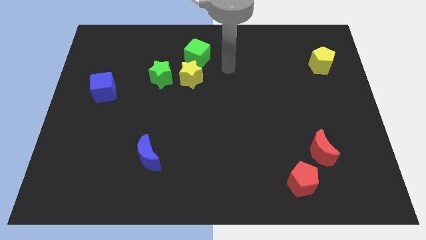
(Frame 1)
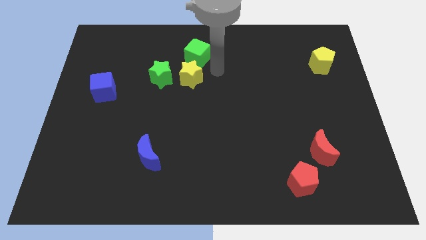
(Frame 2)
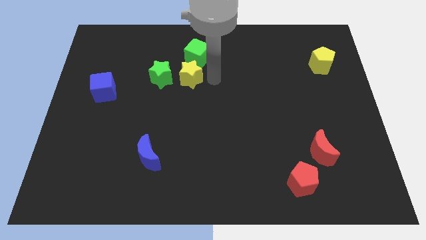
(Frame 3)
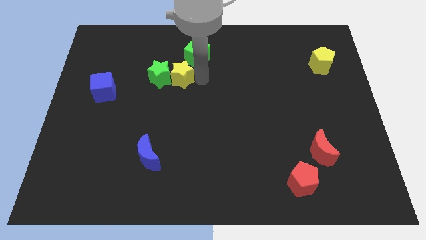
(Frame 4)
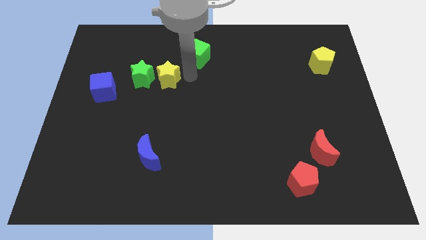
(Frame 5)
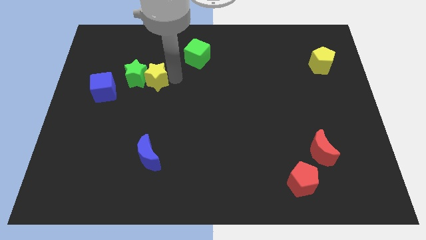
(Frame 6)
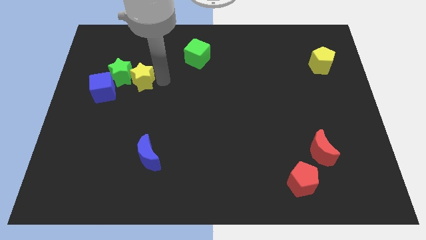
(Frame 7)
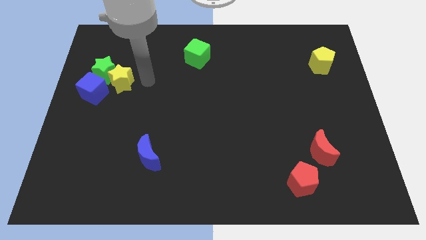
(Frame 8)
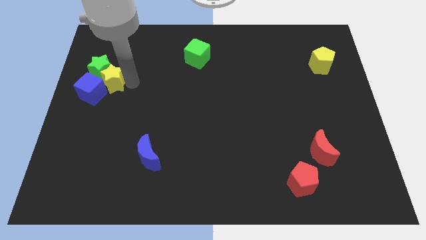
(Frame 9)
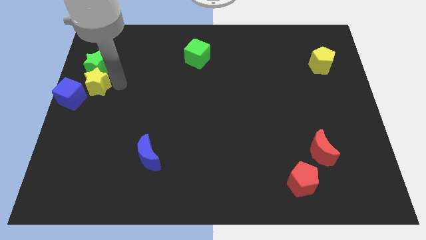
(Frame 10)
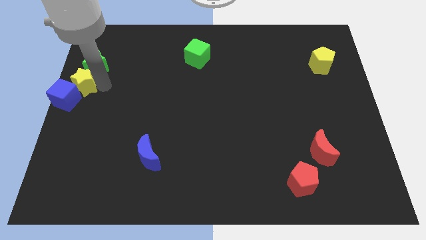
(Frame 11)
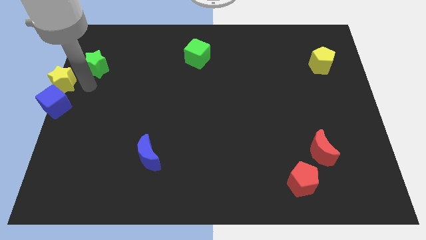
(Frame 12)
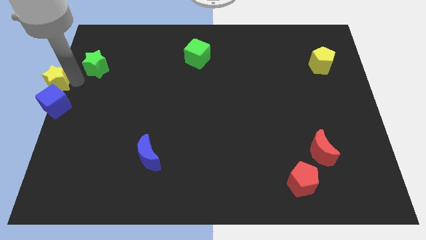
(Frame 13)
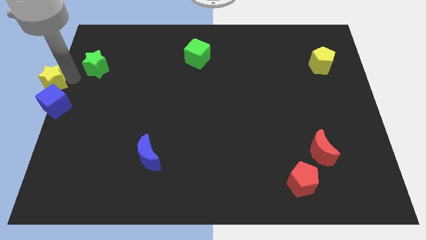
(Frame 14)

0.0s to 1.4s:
pull the green star apart from the yellow star

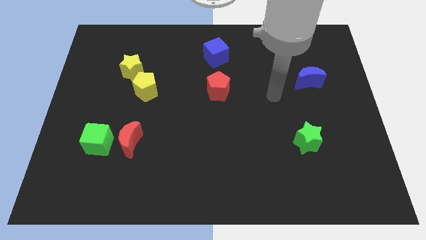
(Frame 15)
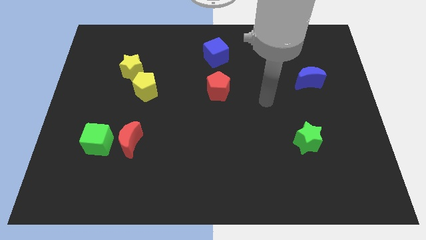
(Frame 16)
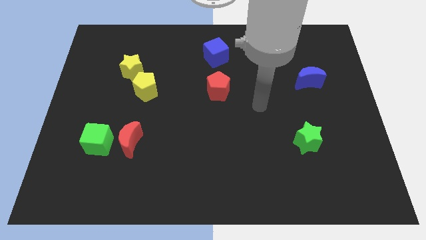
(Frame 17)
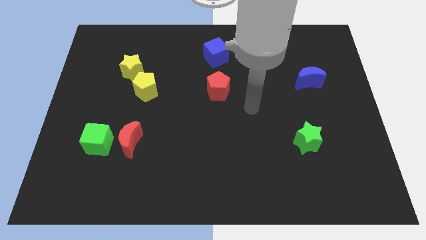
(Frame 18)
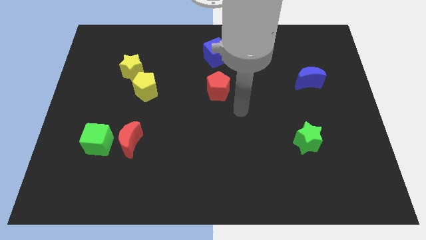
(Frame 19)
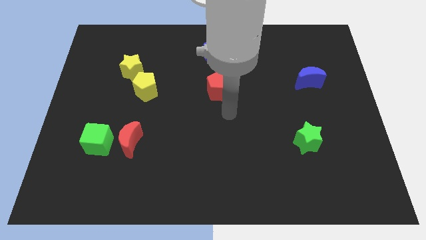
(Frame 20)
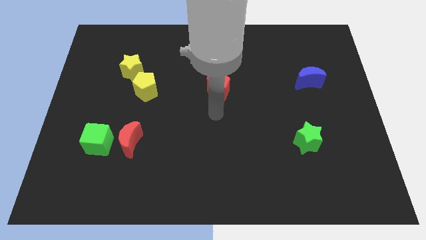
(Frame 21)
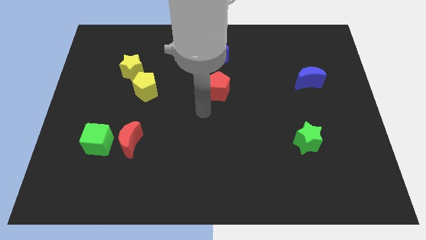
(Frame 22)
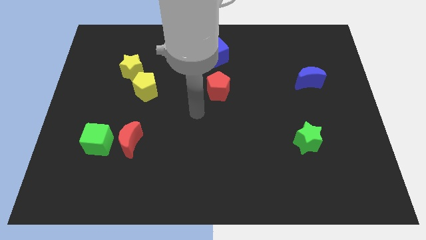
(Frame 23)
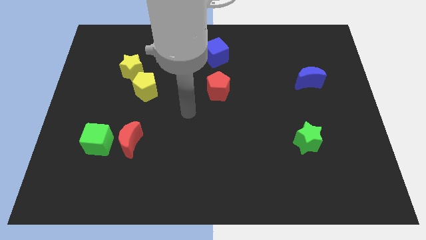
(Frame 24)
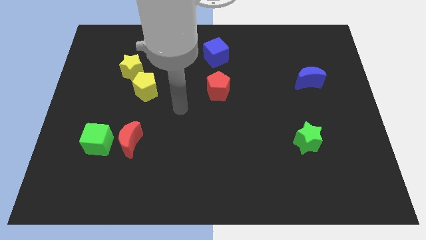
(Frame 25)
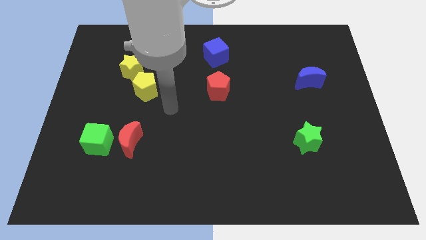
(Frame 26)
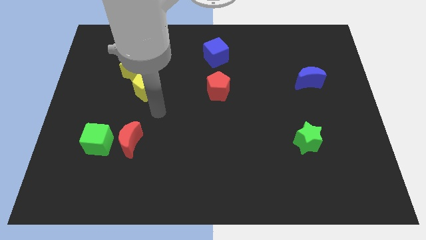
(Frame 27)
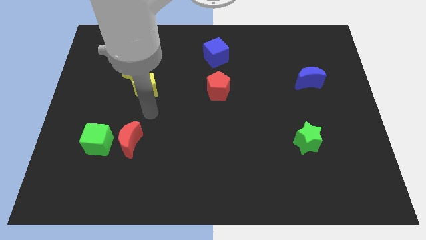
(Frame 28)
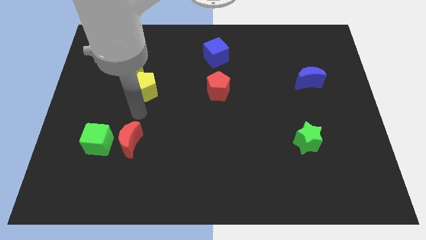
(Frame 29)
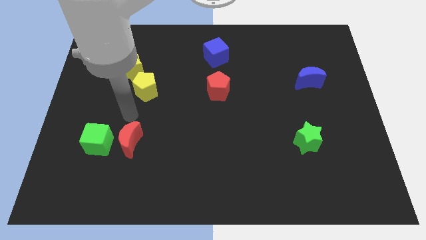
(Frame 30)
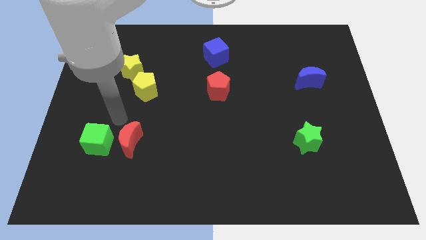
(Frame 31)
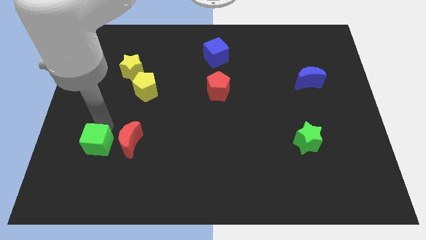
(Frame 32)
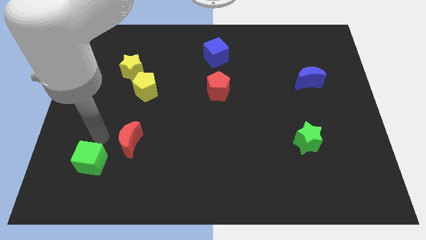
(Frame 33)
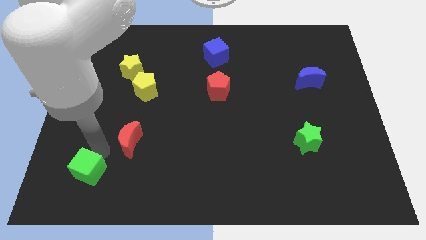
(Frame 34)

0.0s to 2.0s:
move the red moon away from the green cube

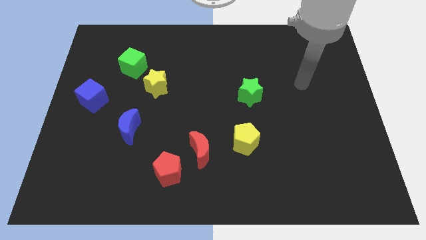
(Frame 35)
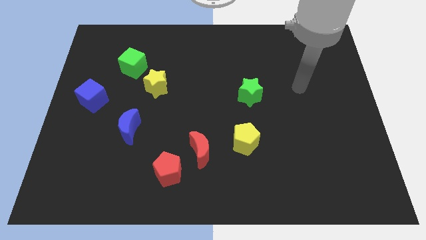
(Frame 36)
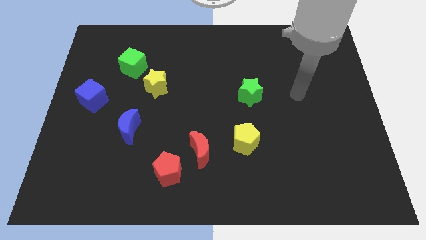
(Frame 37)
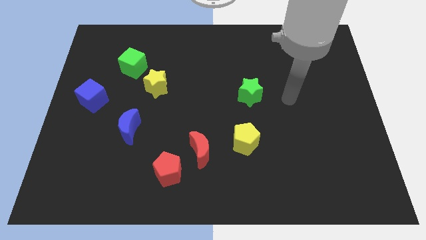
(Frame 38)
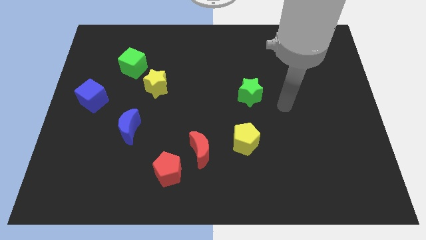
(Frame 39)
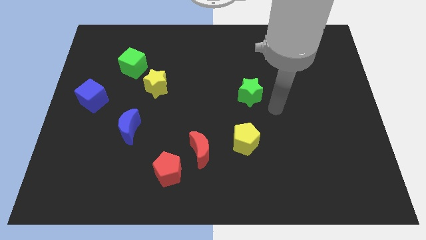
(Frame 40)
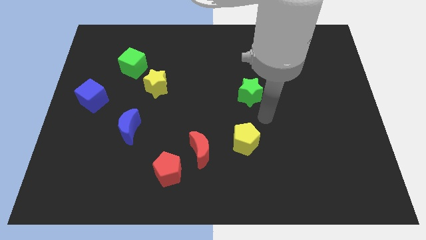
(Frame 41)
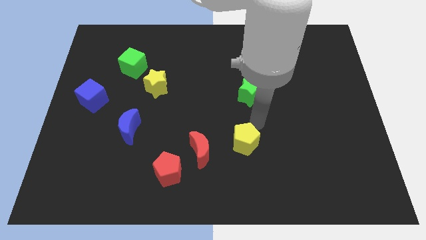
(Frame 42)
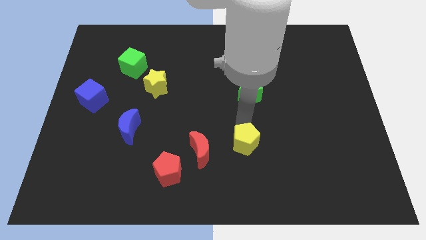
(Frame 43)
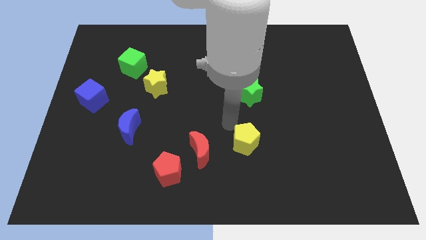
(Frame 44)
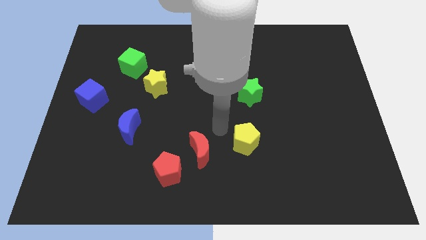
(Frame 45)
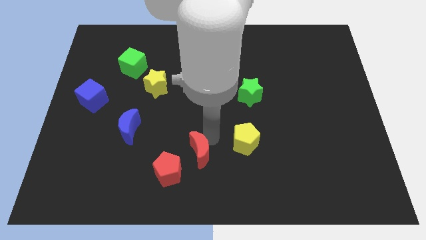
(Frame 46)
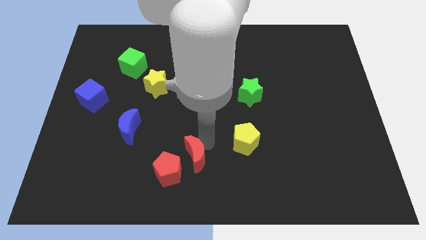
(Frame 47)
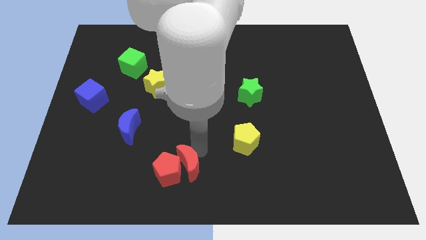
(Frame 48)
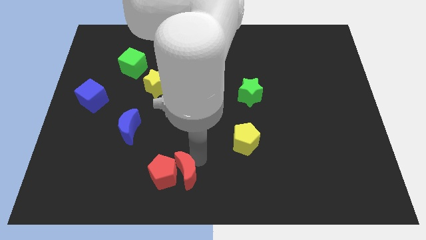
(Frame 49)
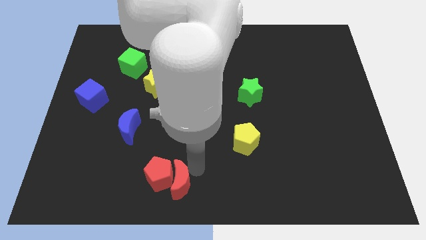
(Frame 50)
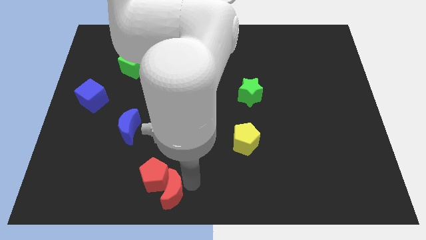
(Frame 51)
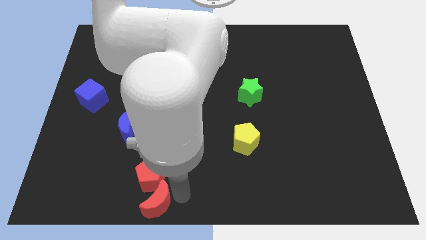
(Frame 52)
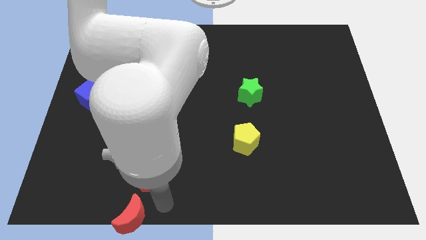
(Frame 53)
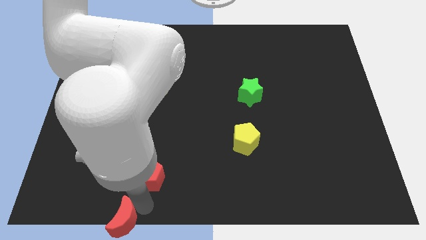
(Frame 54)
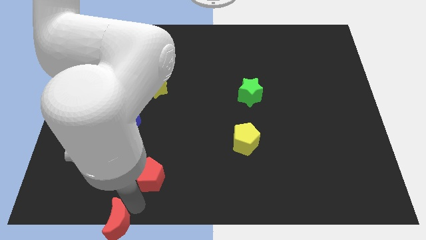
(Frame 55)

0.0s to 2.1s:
pull the red pentagon apart from the red moon

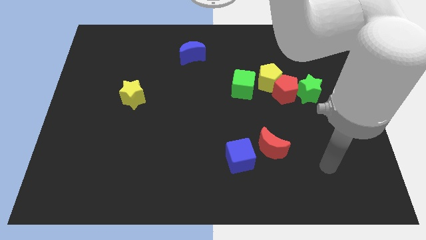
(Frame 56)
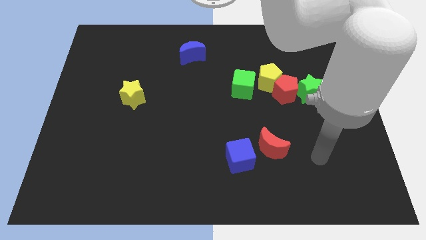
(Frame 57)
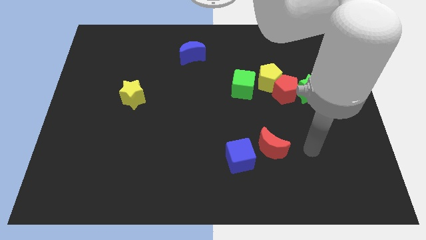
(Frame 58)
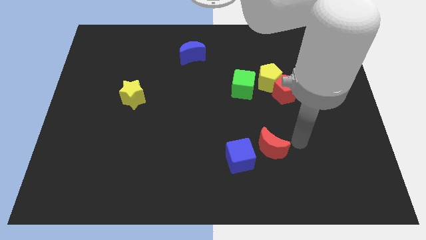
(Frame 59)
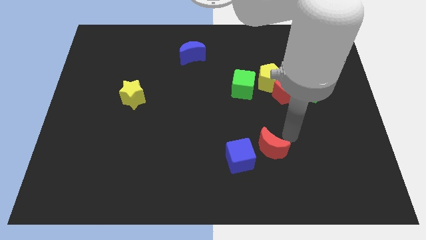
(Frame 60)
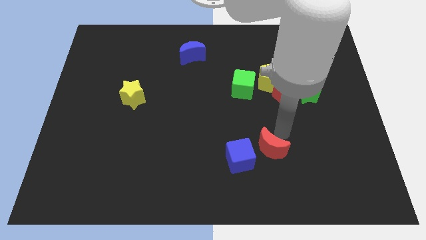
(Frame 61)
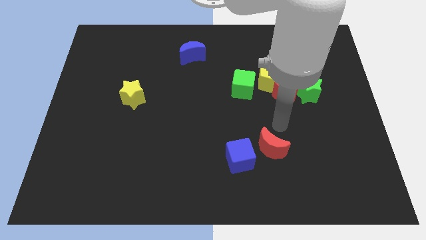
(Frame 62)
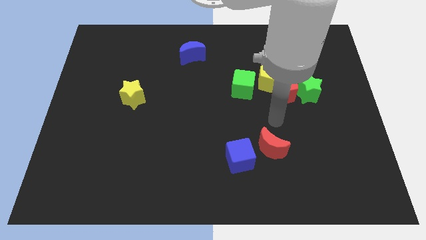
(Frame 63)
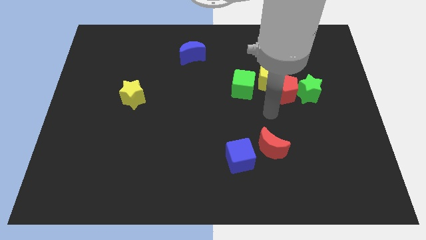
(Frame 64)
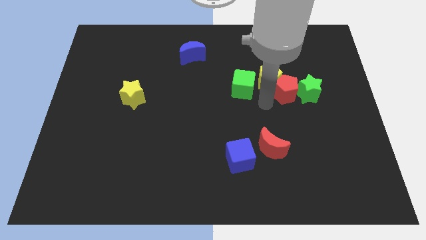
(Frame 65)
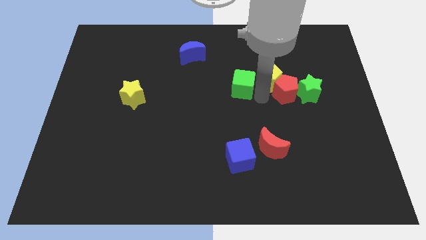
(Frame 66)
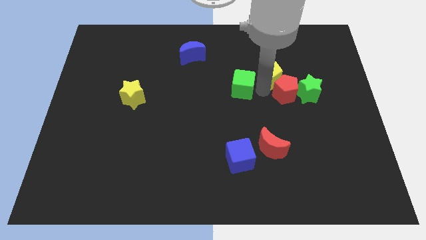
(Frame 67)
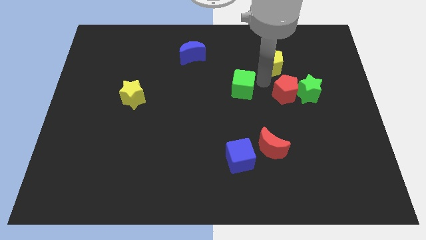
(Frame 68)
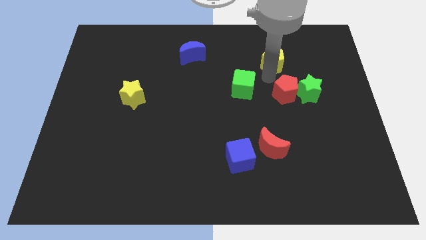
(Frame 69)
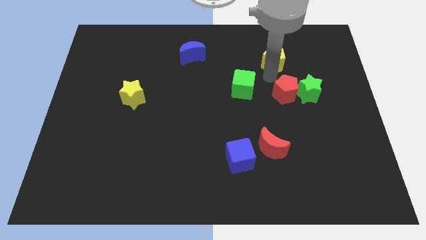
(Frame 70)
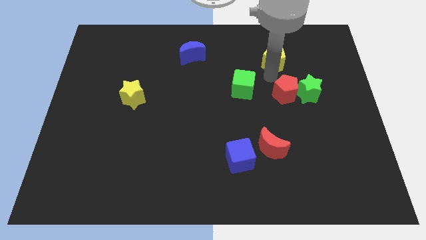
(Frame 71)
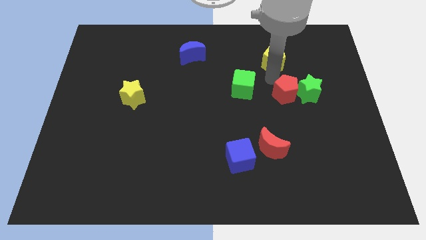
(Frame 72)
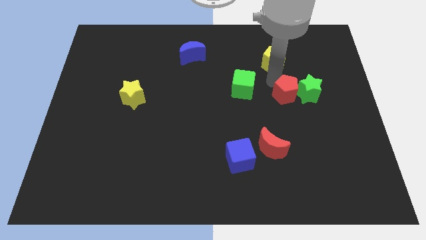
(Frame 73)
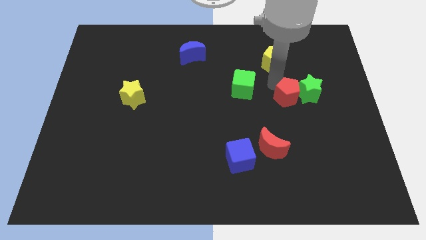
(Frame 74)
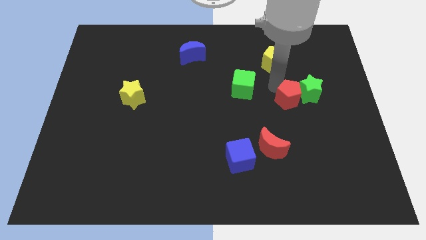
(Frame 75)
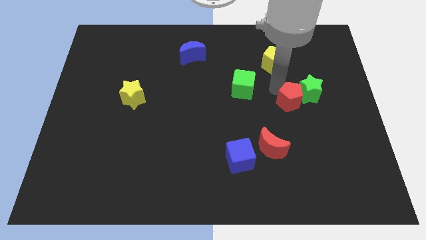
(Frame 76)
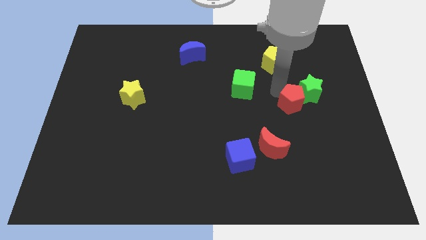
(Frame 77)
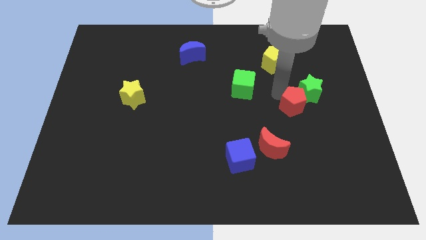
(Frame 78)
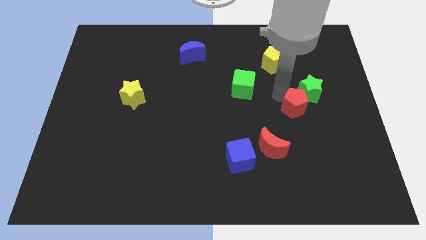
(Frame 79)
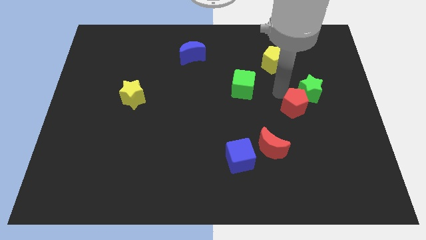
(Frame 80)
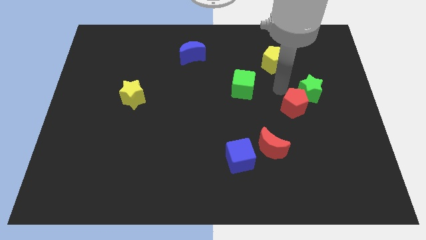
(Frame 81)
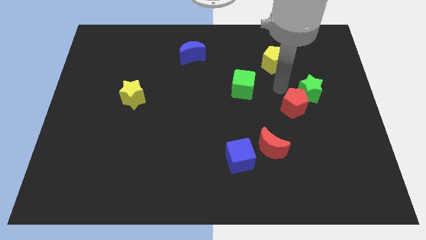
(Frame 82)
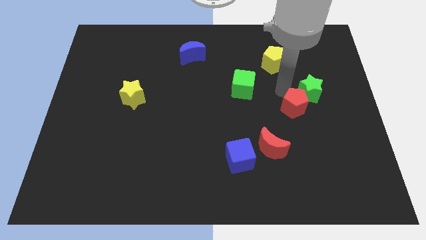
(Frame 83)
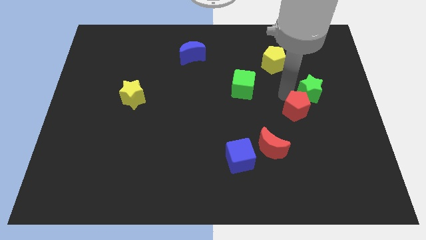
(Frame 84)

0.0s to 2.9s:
separate the red pentagon from the group of blocks

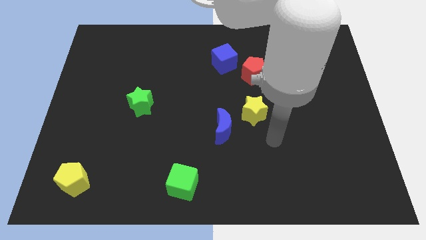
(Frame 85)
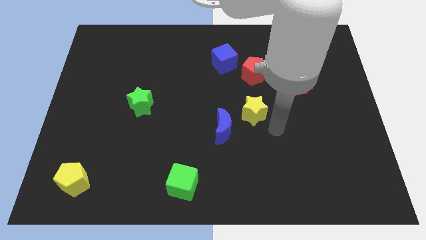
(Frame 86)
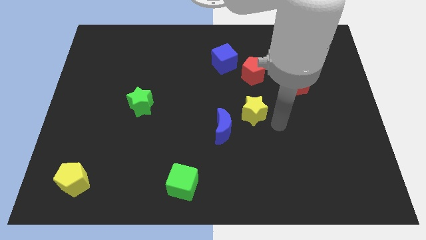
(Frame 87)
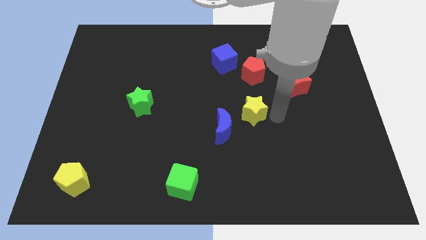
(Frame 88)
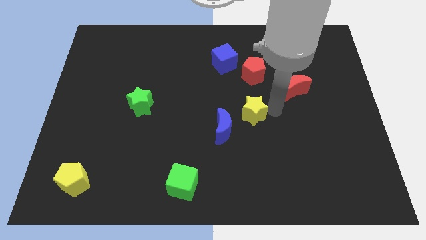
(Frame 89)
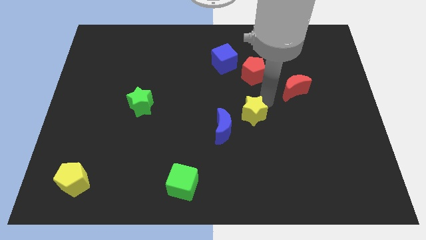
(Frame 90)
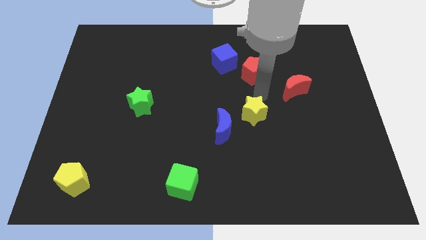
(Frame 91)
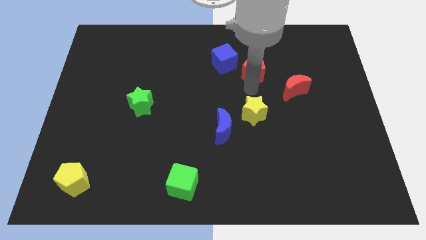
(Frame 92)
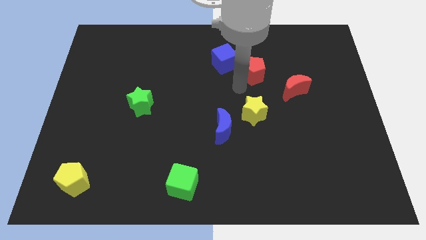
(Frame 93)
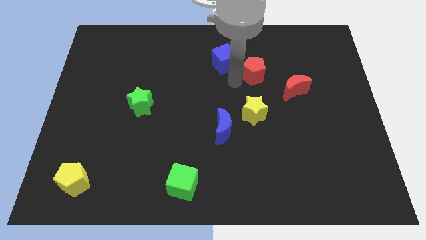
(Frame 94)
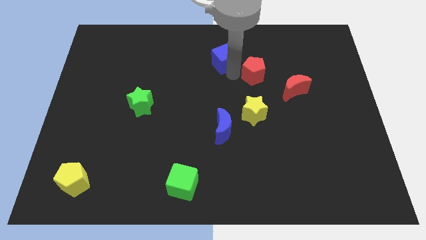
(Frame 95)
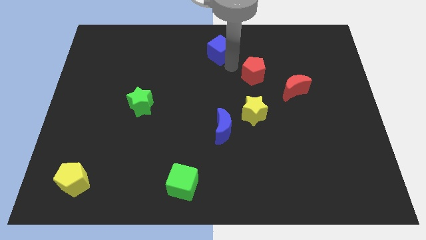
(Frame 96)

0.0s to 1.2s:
move the red pentagon away from the blue cube
